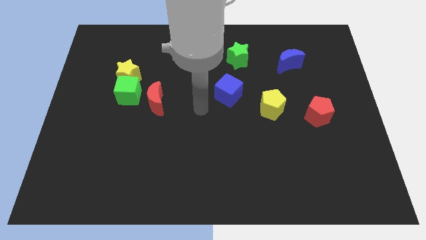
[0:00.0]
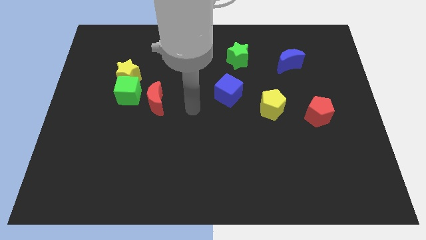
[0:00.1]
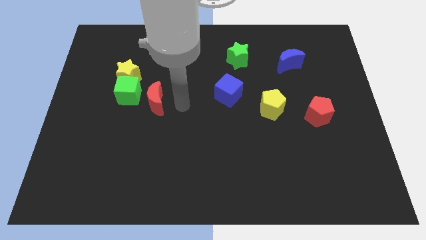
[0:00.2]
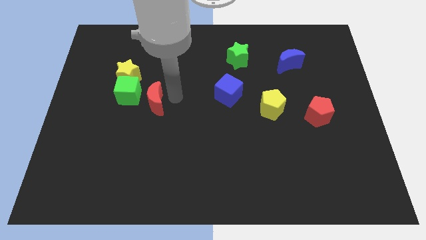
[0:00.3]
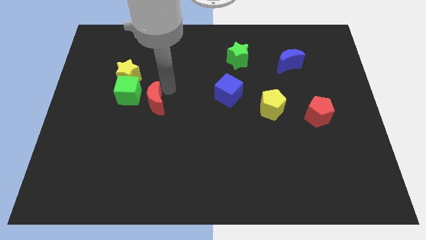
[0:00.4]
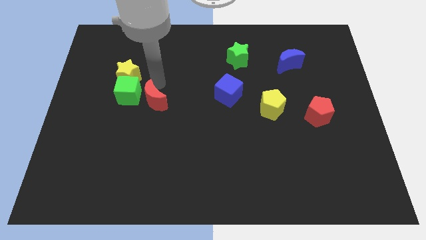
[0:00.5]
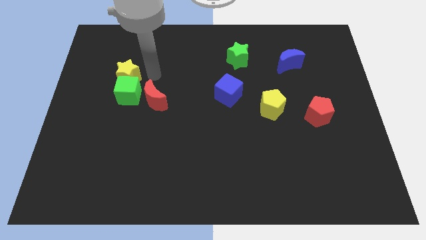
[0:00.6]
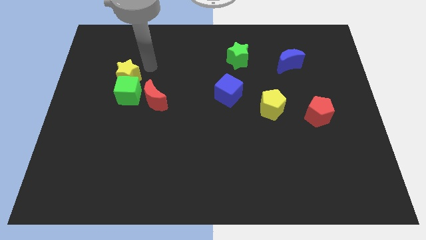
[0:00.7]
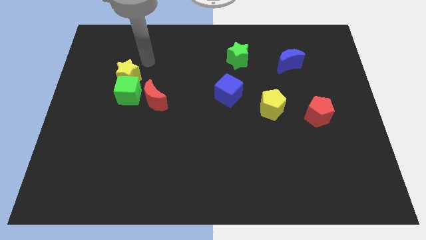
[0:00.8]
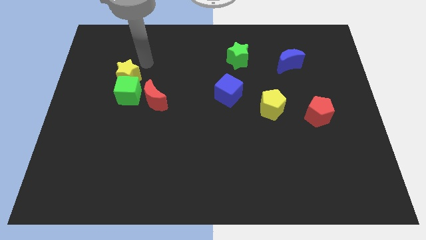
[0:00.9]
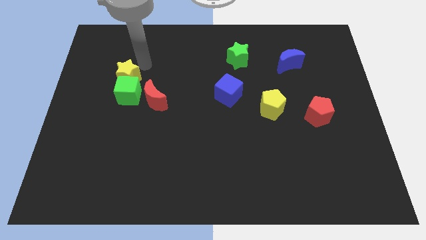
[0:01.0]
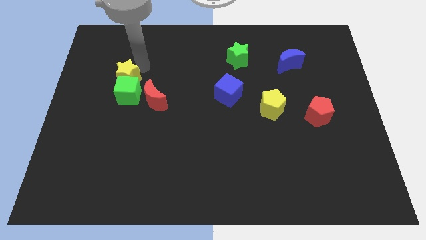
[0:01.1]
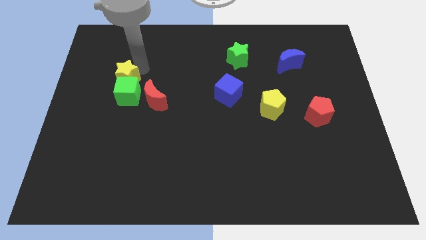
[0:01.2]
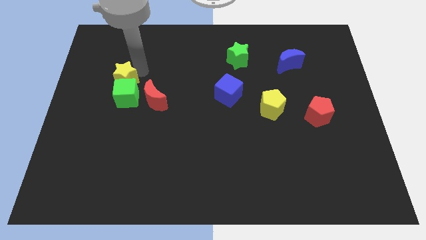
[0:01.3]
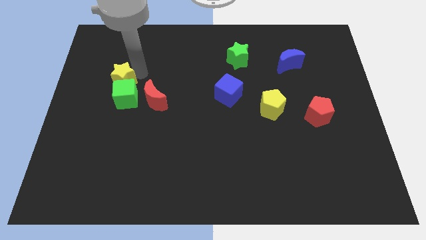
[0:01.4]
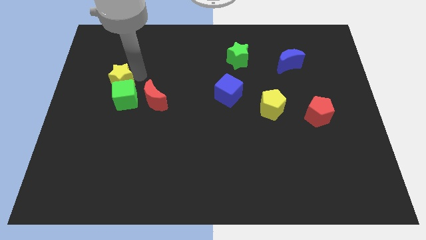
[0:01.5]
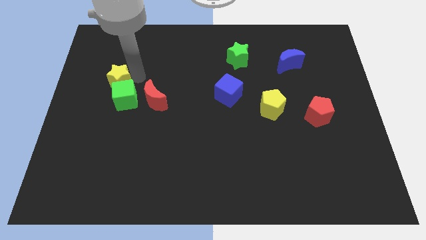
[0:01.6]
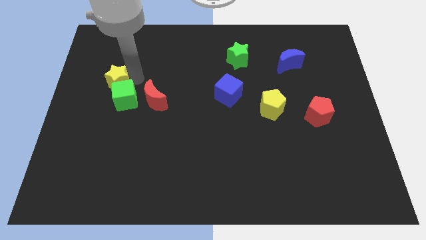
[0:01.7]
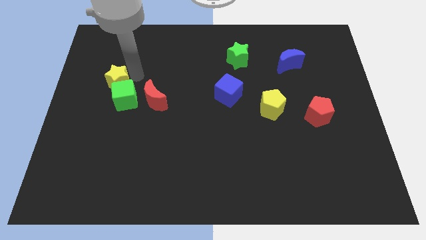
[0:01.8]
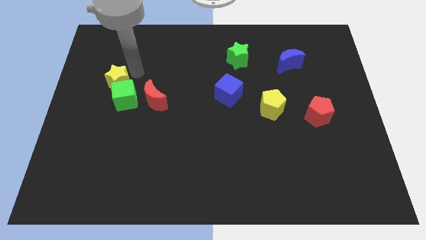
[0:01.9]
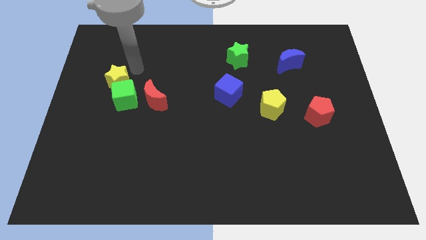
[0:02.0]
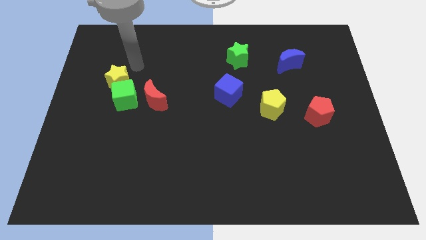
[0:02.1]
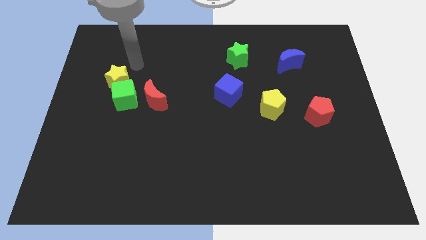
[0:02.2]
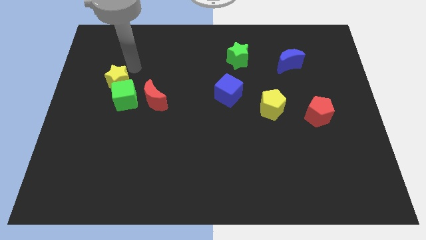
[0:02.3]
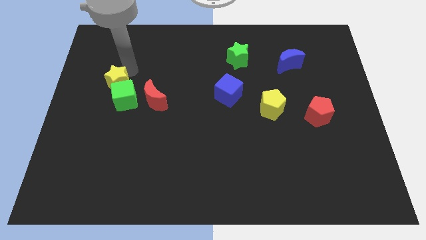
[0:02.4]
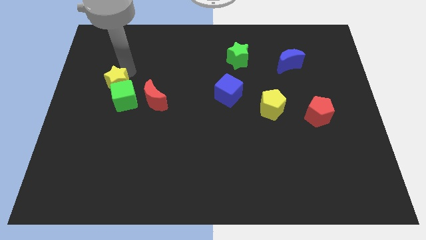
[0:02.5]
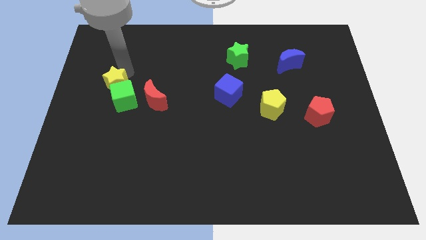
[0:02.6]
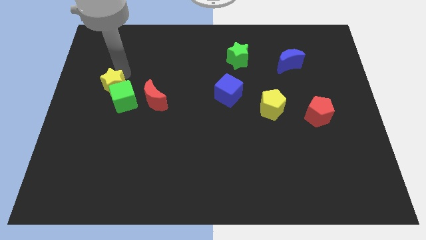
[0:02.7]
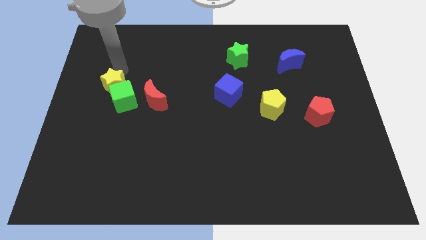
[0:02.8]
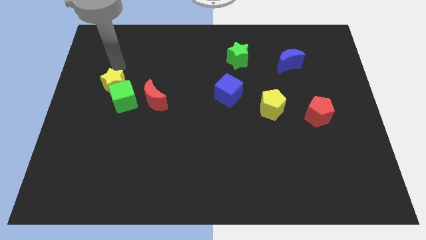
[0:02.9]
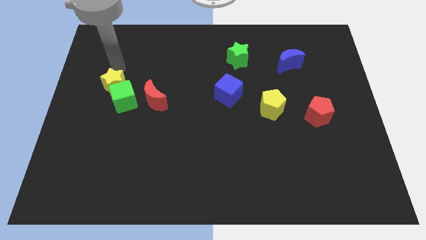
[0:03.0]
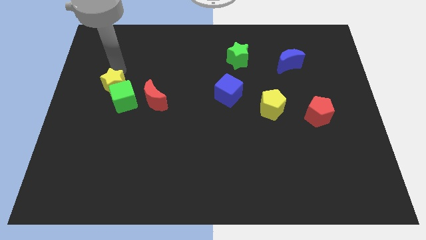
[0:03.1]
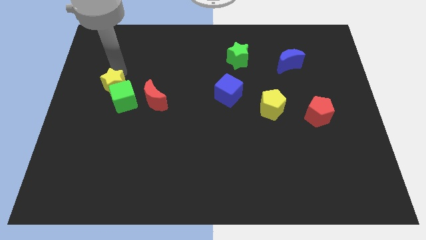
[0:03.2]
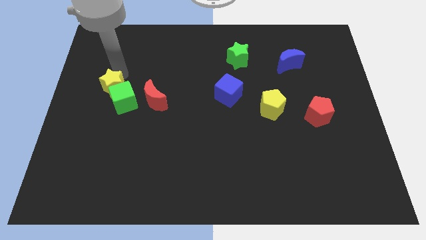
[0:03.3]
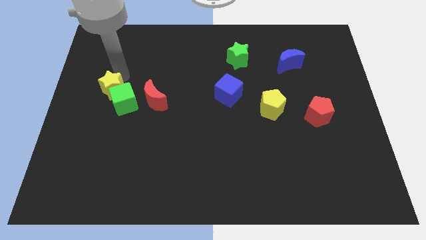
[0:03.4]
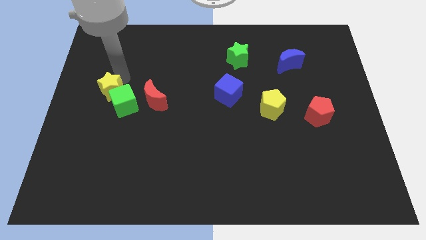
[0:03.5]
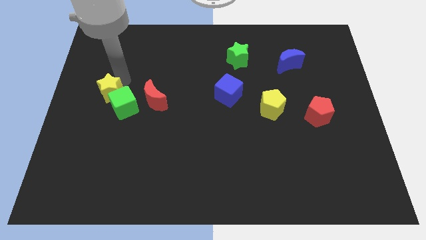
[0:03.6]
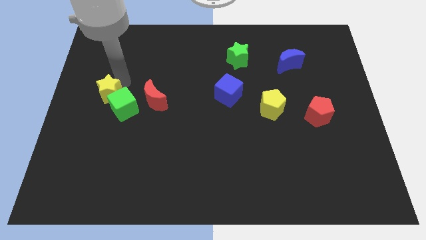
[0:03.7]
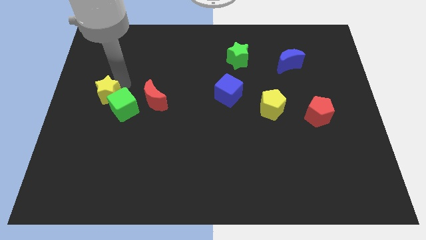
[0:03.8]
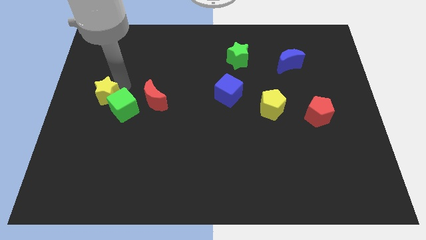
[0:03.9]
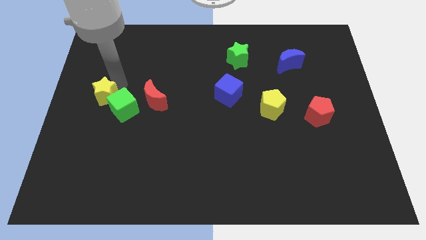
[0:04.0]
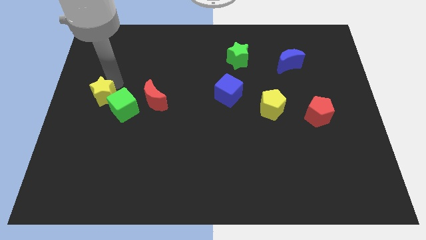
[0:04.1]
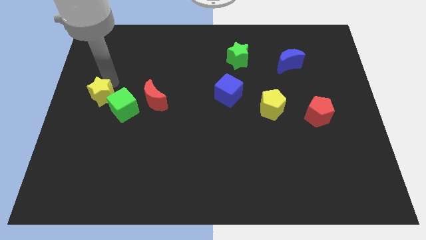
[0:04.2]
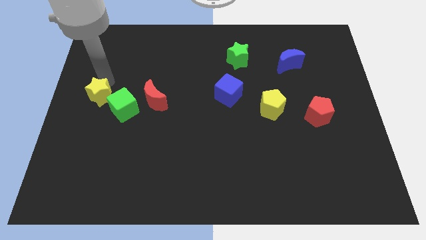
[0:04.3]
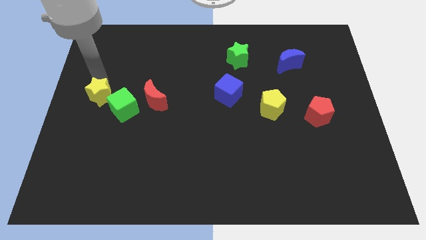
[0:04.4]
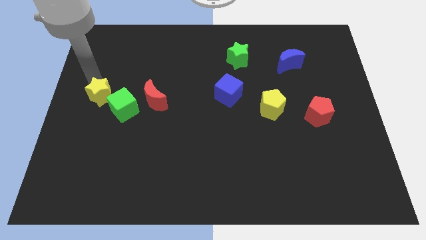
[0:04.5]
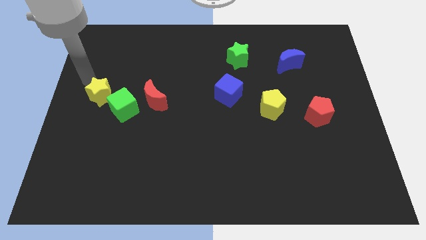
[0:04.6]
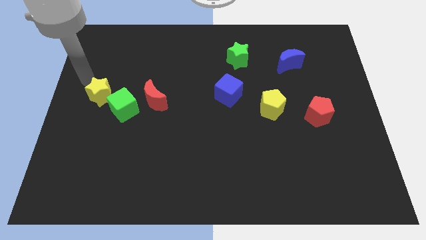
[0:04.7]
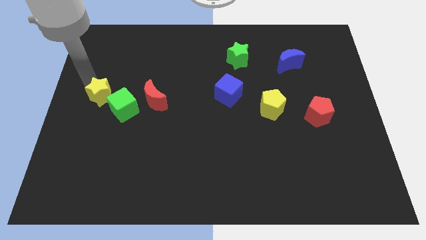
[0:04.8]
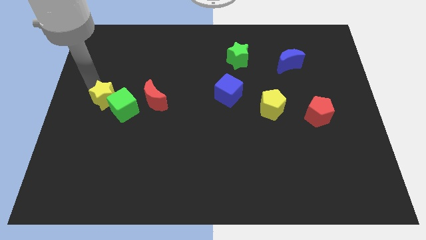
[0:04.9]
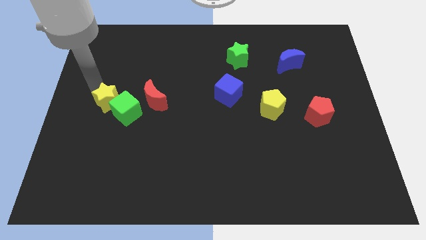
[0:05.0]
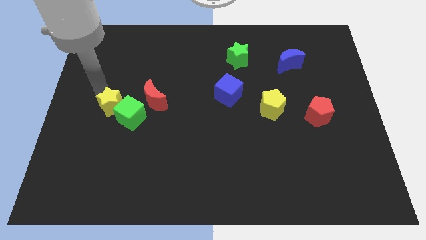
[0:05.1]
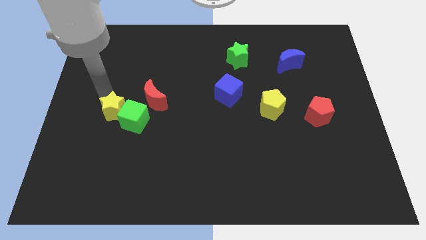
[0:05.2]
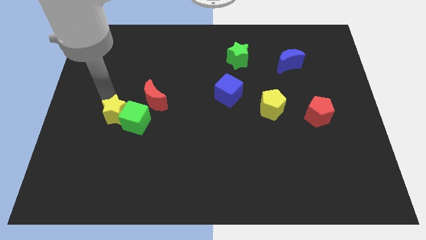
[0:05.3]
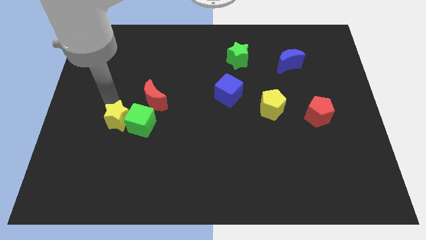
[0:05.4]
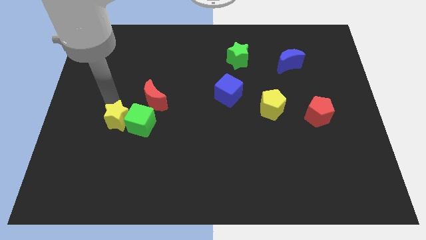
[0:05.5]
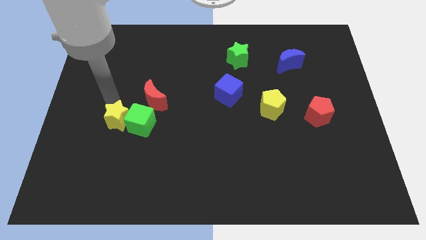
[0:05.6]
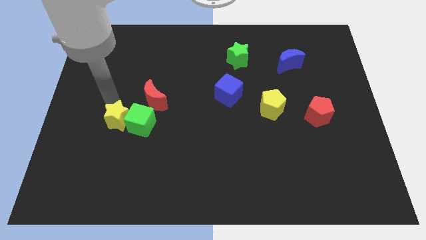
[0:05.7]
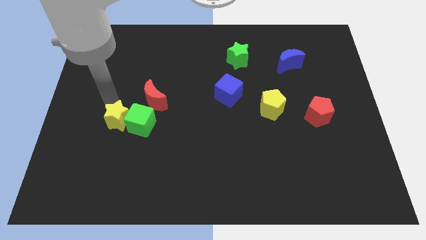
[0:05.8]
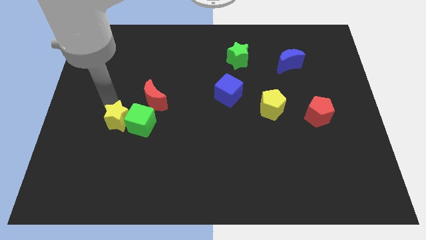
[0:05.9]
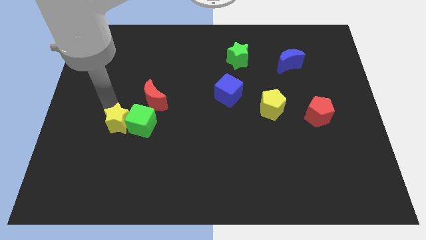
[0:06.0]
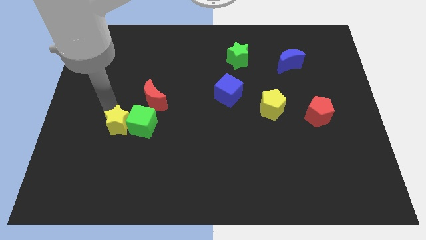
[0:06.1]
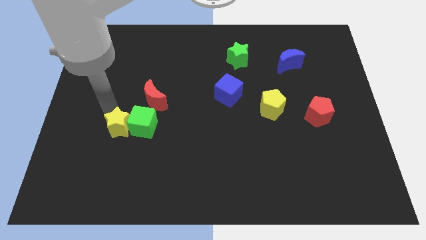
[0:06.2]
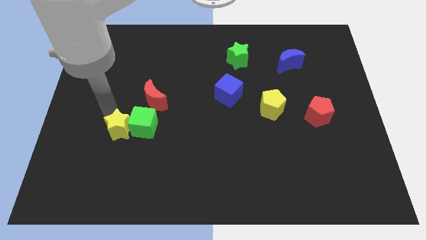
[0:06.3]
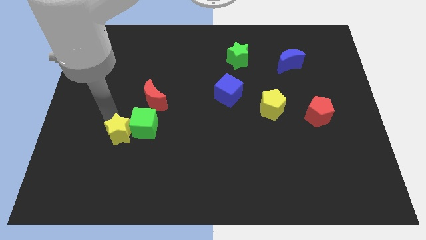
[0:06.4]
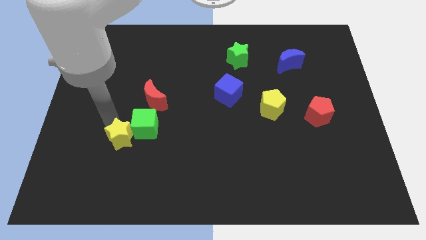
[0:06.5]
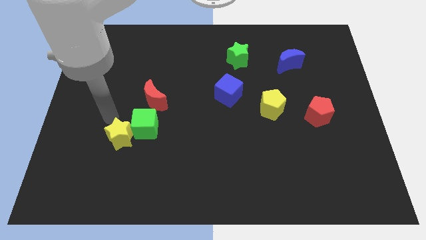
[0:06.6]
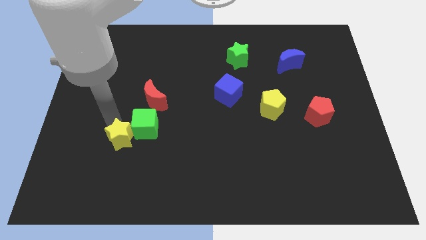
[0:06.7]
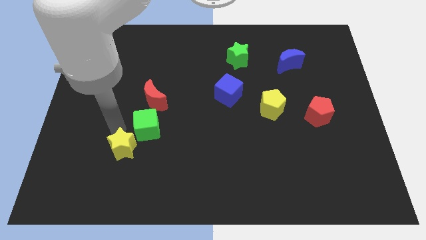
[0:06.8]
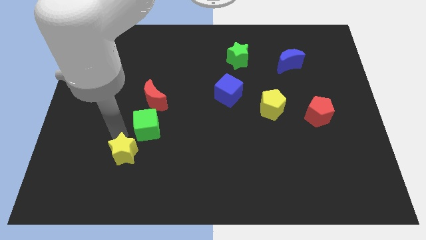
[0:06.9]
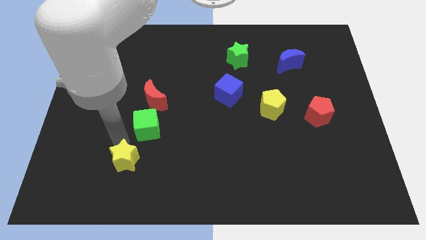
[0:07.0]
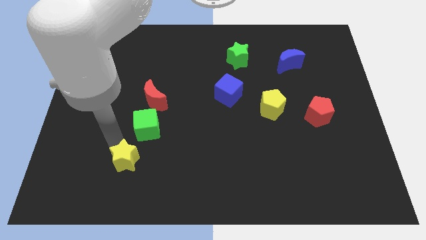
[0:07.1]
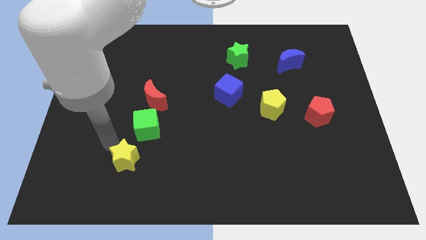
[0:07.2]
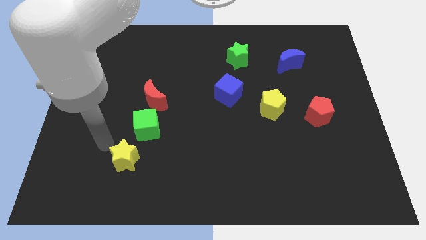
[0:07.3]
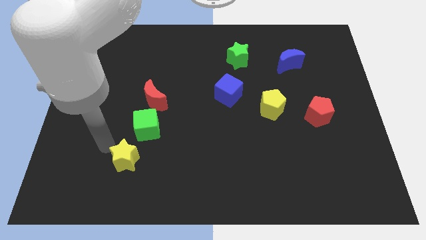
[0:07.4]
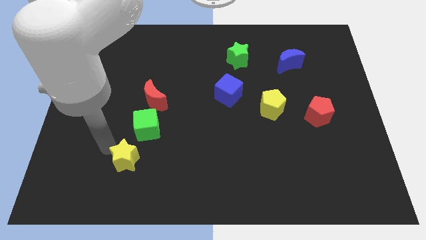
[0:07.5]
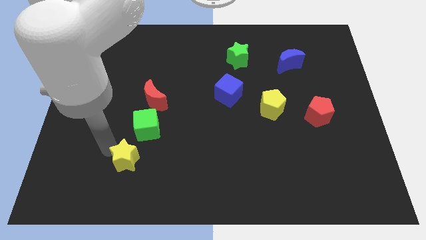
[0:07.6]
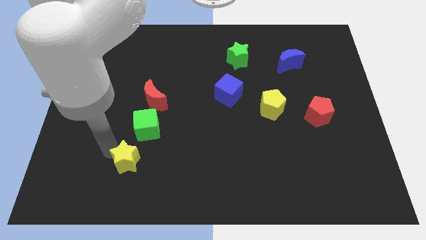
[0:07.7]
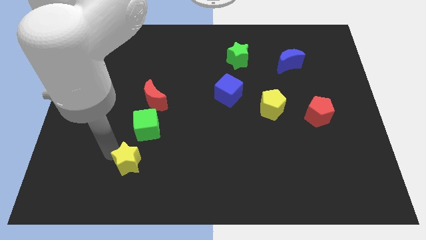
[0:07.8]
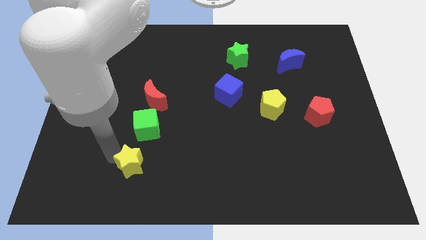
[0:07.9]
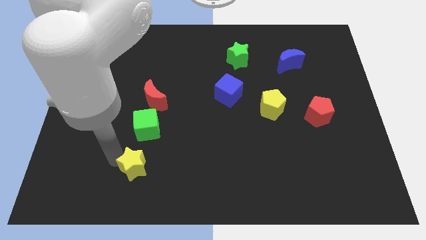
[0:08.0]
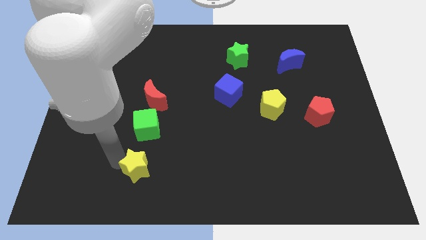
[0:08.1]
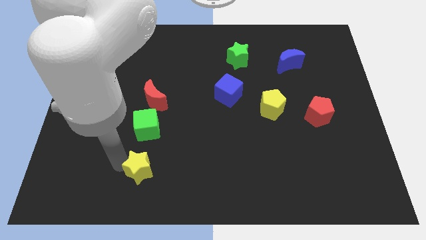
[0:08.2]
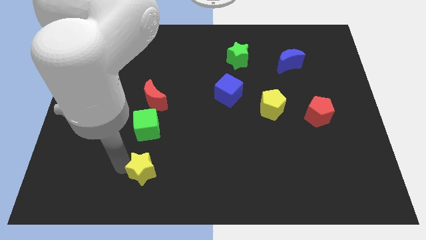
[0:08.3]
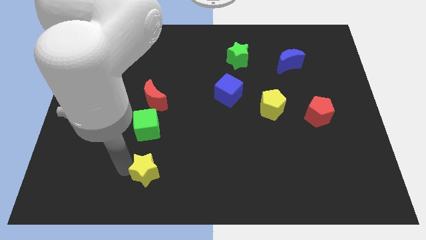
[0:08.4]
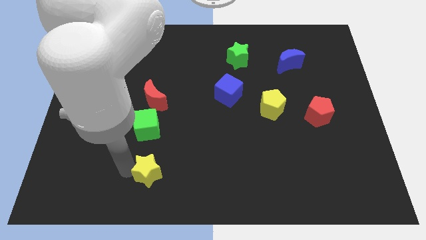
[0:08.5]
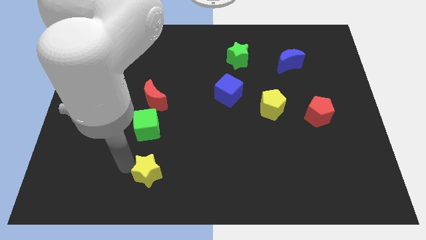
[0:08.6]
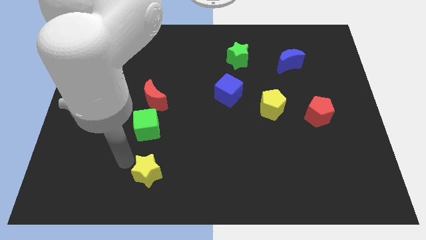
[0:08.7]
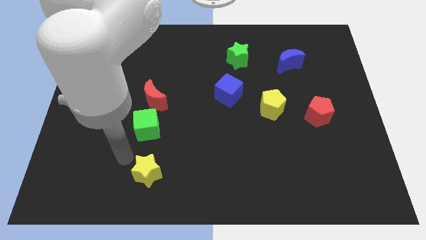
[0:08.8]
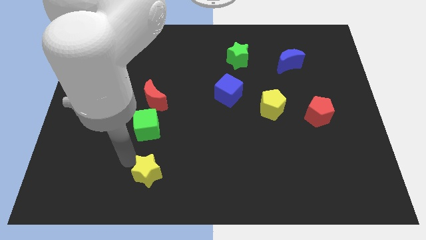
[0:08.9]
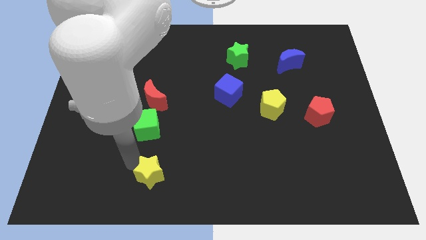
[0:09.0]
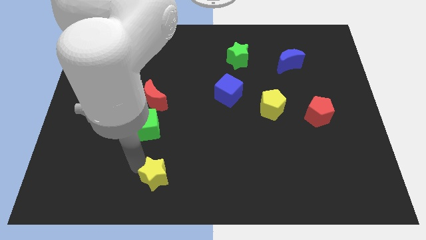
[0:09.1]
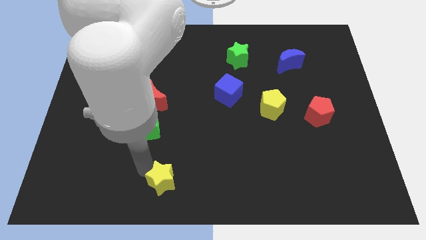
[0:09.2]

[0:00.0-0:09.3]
put the yellow star to the bottom side
